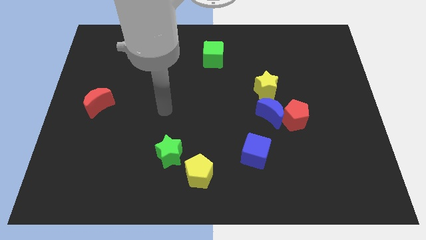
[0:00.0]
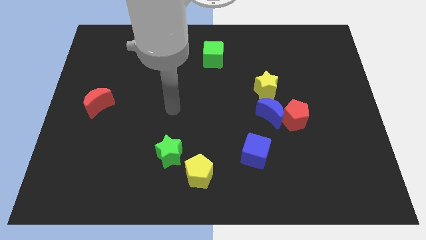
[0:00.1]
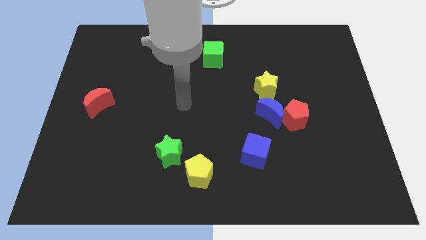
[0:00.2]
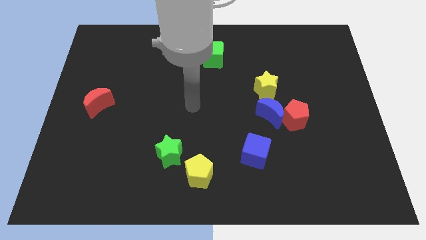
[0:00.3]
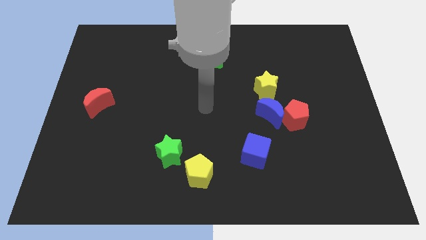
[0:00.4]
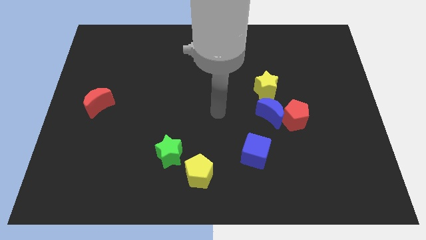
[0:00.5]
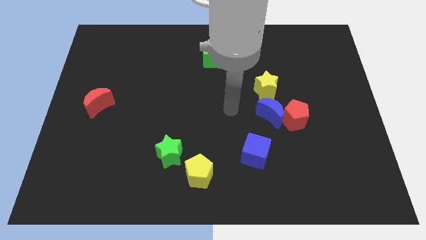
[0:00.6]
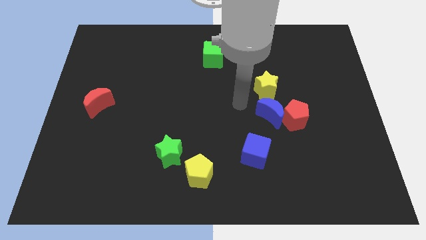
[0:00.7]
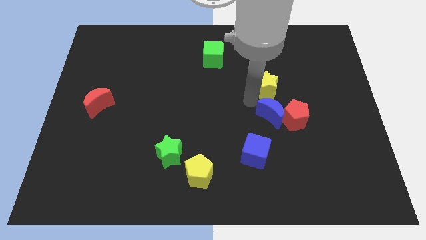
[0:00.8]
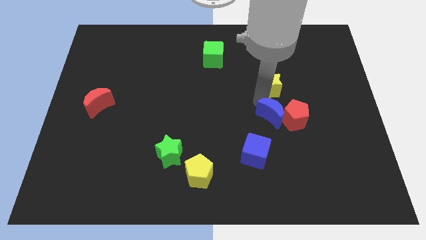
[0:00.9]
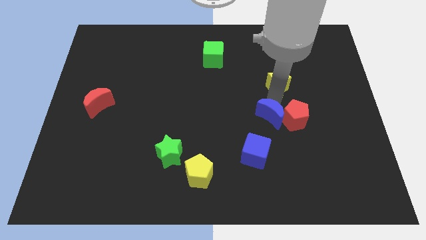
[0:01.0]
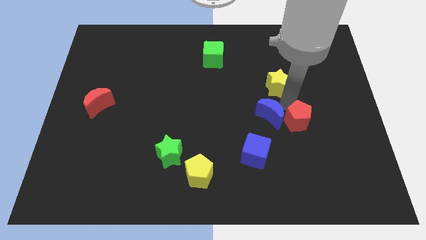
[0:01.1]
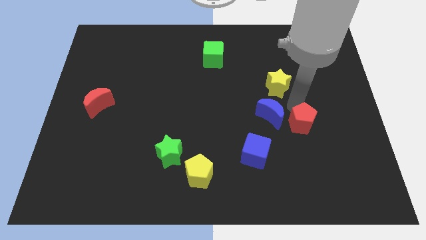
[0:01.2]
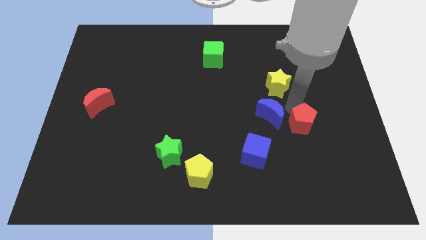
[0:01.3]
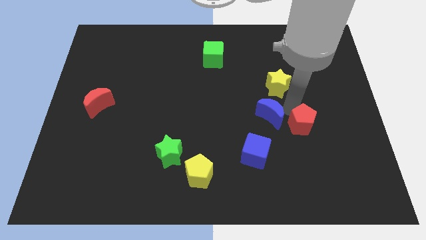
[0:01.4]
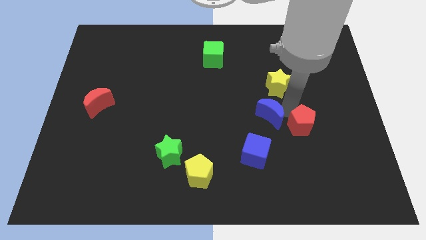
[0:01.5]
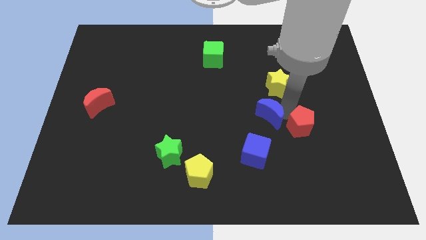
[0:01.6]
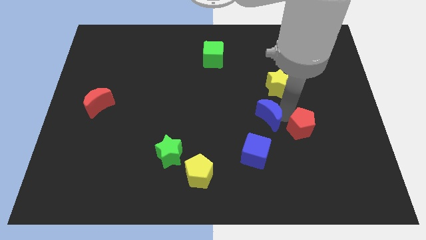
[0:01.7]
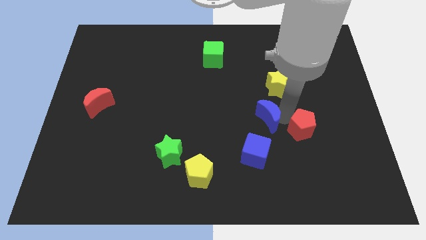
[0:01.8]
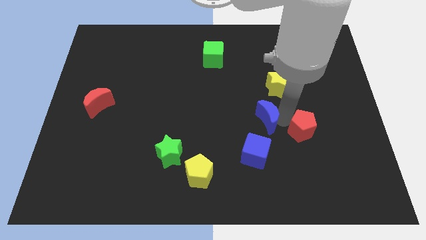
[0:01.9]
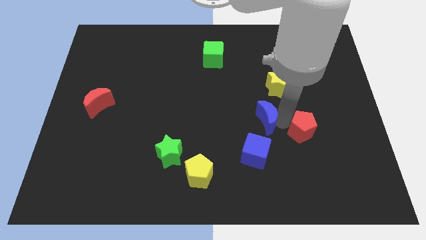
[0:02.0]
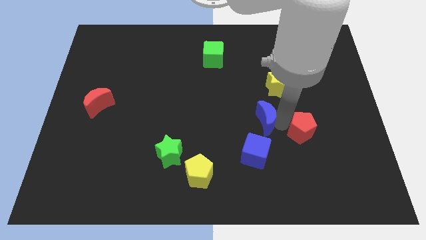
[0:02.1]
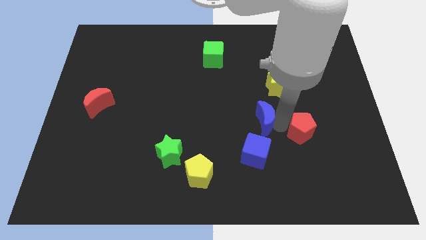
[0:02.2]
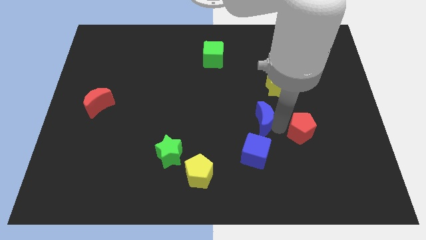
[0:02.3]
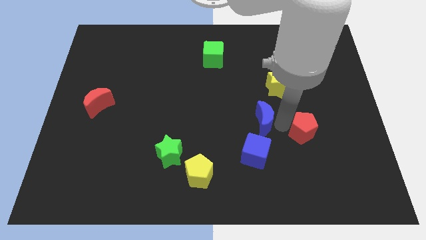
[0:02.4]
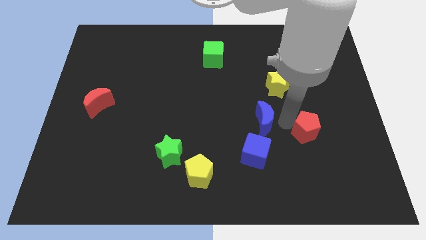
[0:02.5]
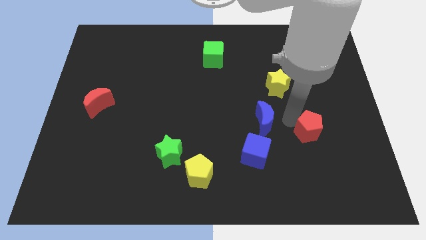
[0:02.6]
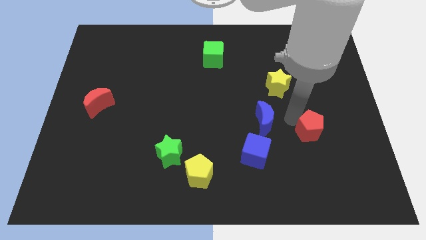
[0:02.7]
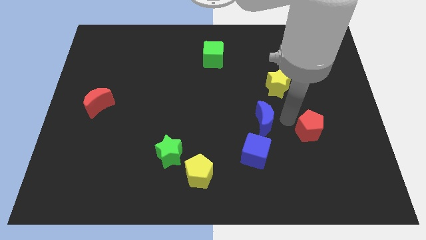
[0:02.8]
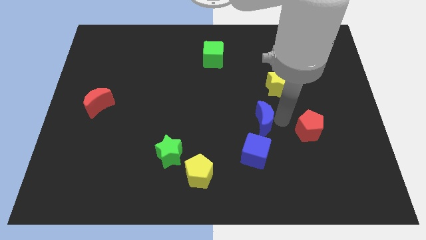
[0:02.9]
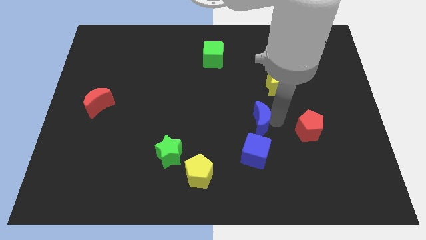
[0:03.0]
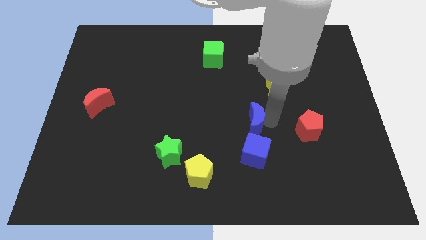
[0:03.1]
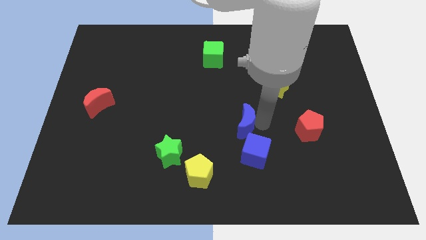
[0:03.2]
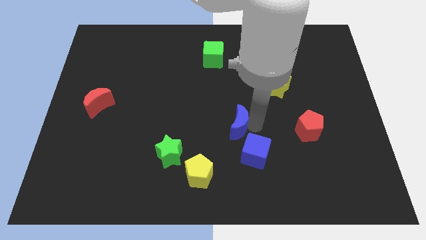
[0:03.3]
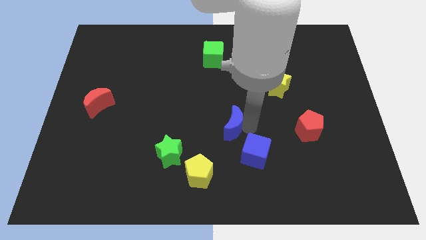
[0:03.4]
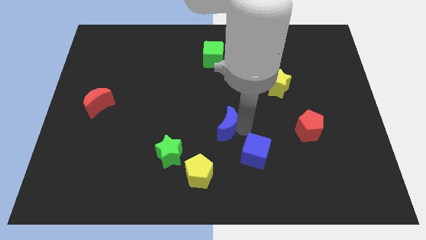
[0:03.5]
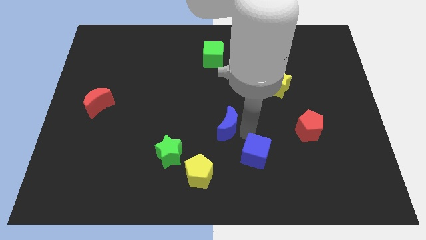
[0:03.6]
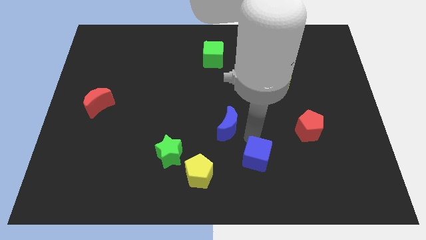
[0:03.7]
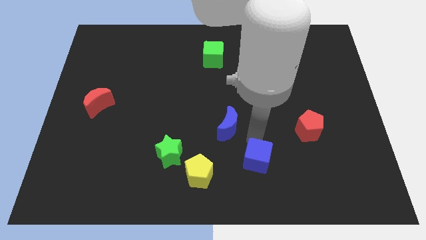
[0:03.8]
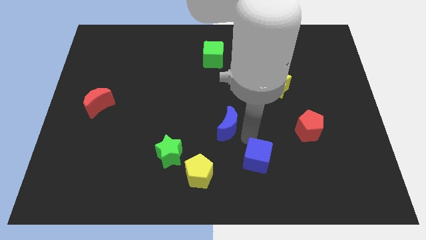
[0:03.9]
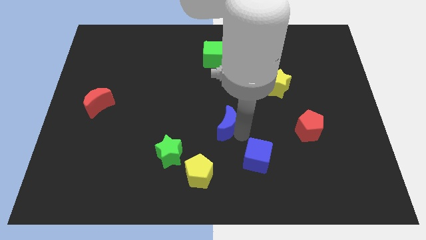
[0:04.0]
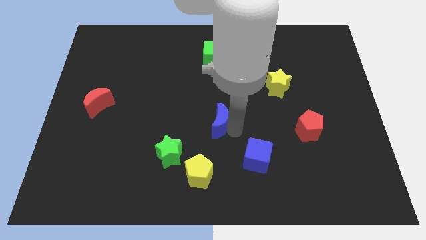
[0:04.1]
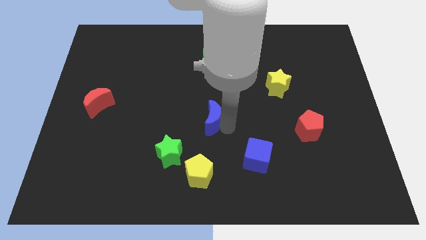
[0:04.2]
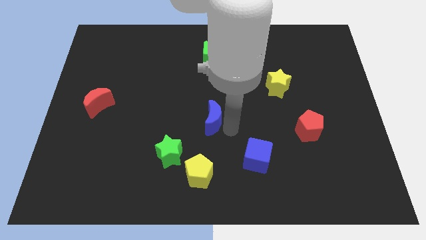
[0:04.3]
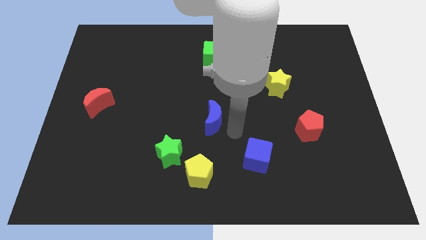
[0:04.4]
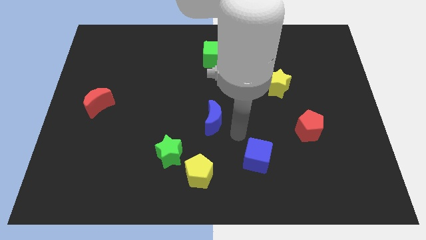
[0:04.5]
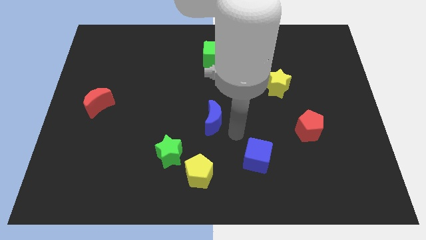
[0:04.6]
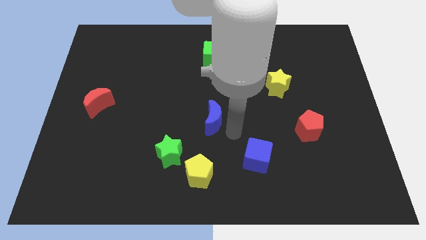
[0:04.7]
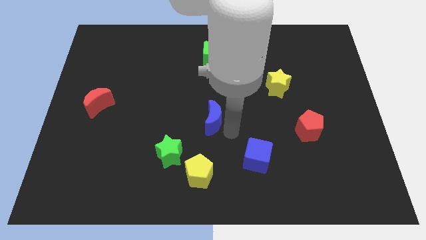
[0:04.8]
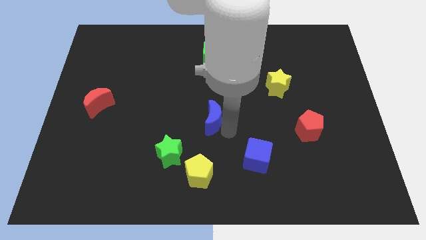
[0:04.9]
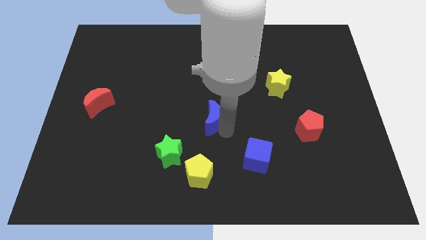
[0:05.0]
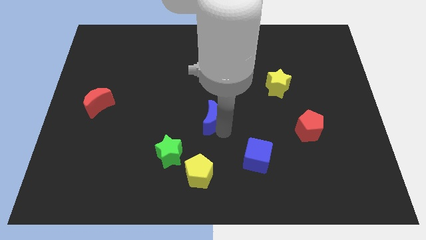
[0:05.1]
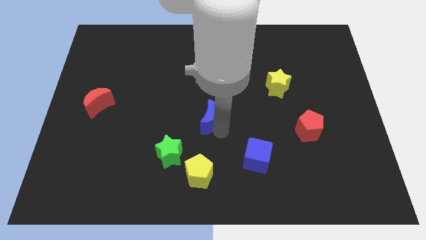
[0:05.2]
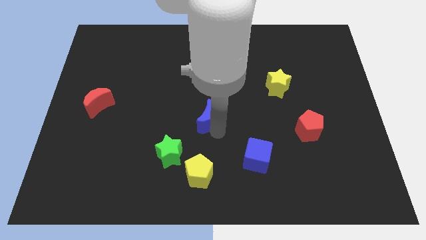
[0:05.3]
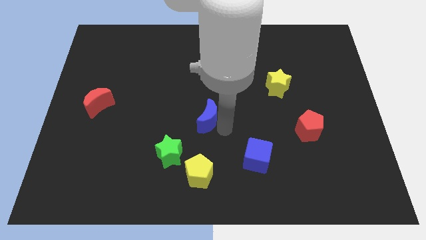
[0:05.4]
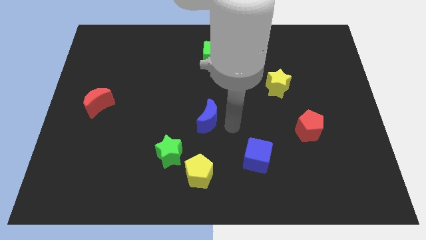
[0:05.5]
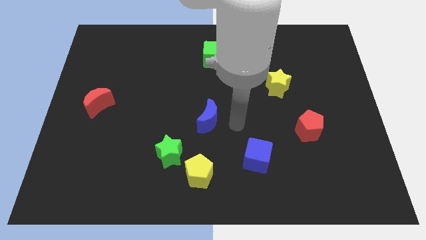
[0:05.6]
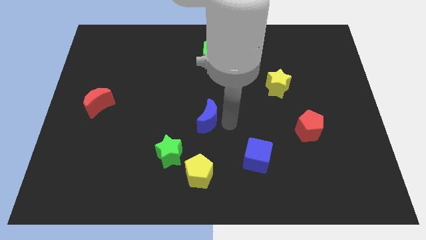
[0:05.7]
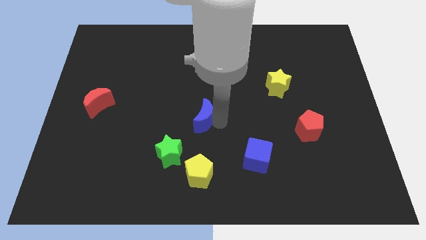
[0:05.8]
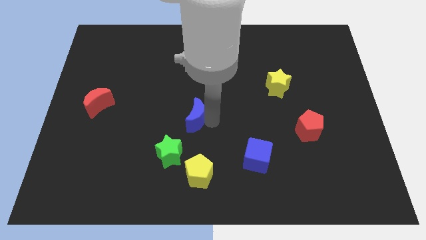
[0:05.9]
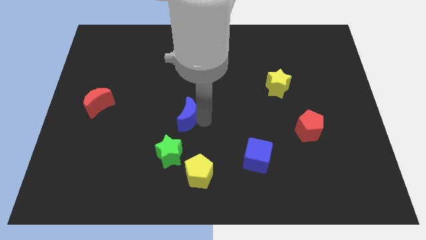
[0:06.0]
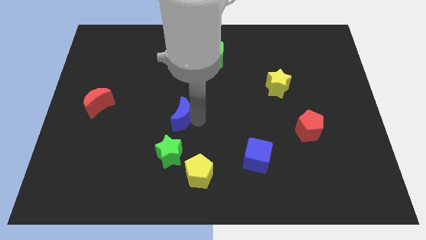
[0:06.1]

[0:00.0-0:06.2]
slide the blue moon to the left

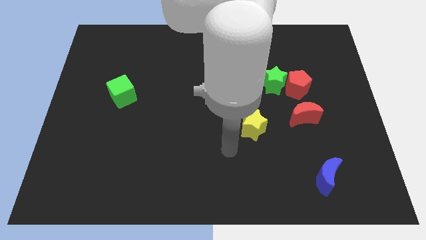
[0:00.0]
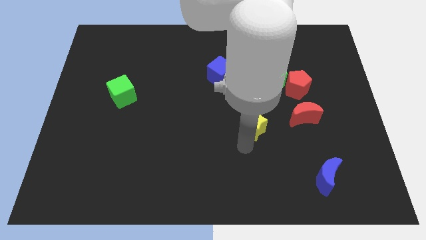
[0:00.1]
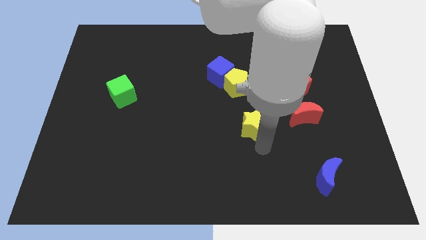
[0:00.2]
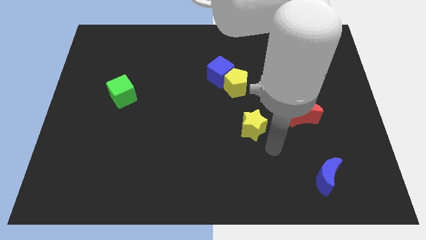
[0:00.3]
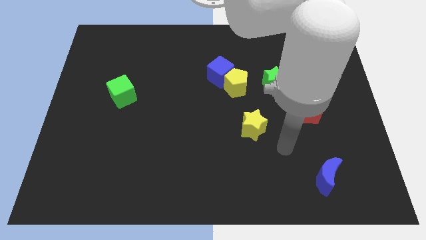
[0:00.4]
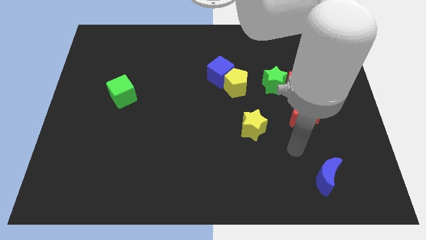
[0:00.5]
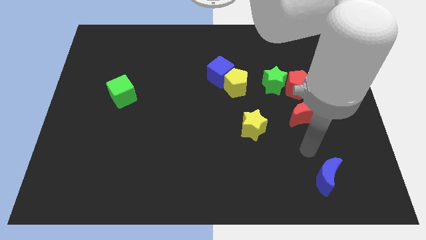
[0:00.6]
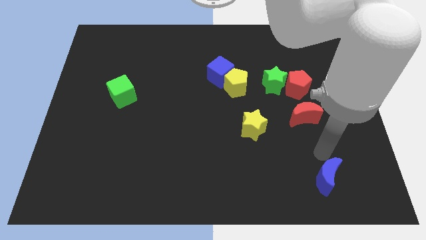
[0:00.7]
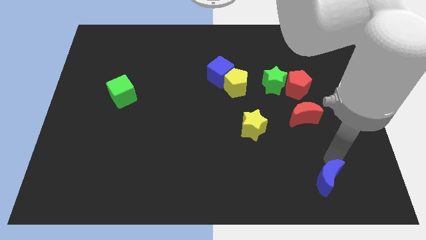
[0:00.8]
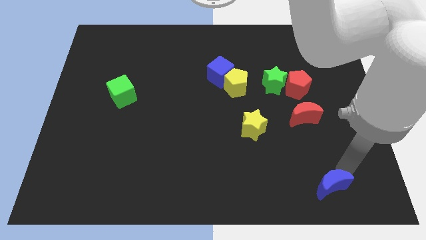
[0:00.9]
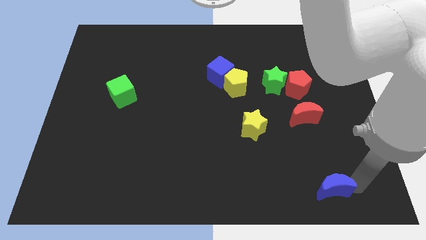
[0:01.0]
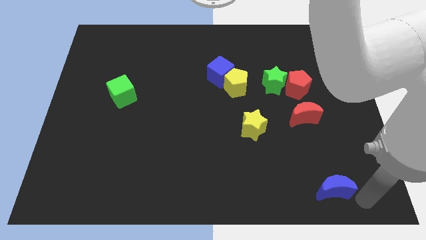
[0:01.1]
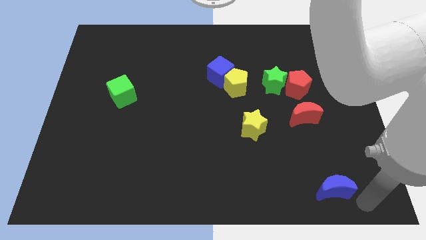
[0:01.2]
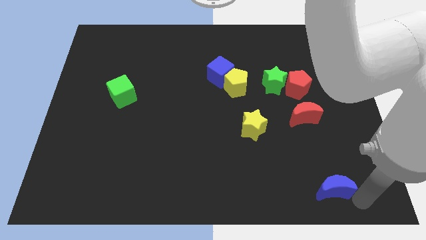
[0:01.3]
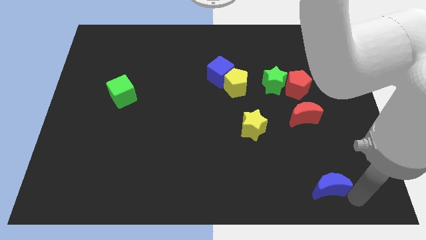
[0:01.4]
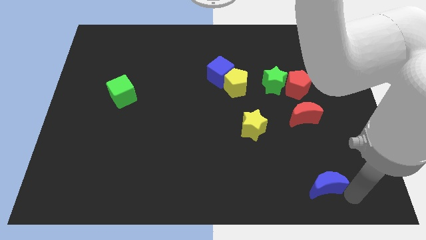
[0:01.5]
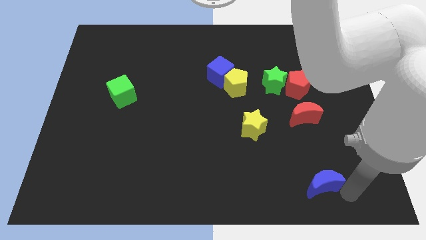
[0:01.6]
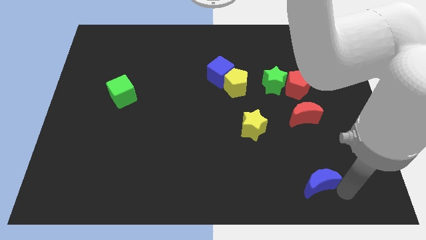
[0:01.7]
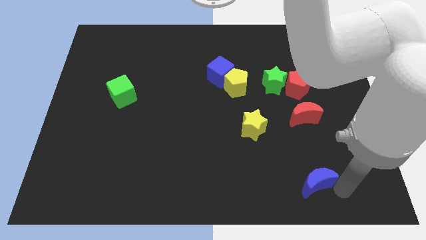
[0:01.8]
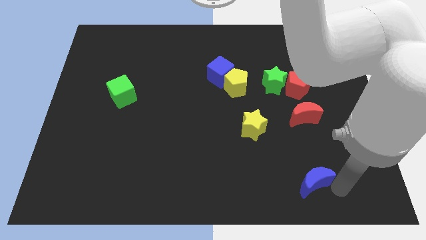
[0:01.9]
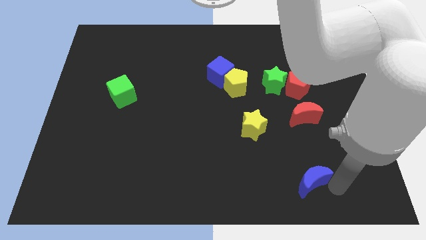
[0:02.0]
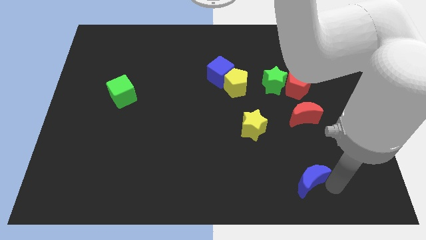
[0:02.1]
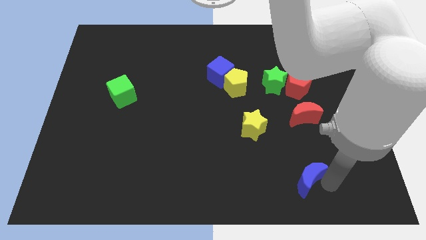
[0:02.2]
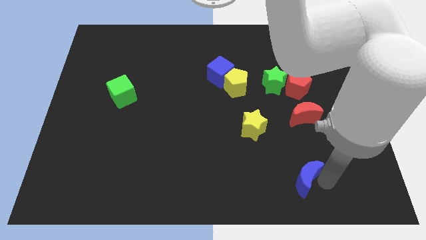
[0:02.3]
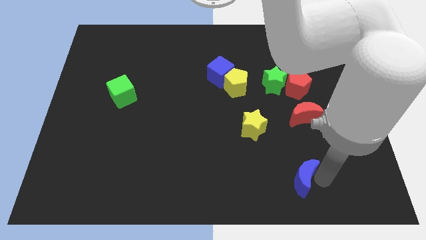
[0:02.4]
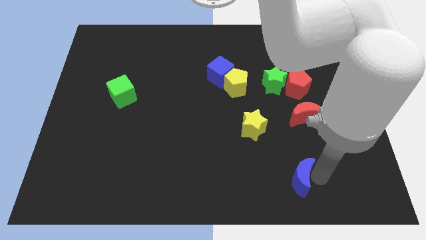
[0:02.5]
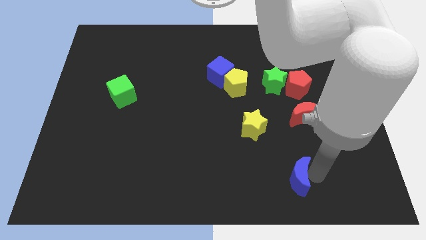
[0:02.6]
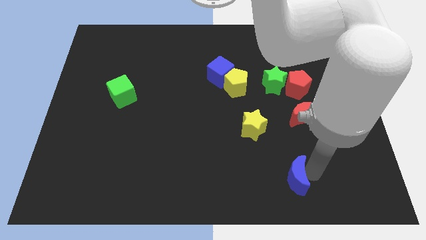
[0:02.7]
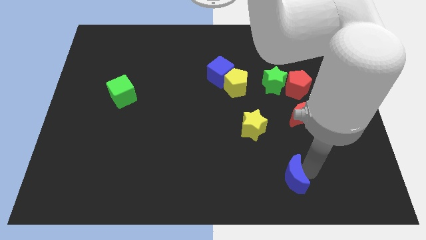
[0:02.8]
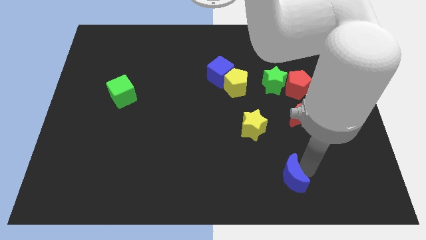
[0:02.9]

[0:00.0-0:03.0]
push the blue moon a bit to the left
